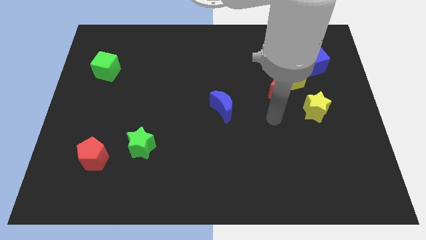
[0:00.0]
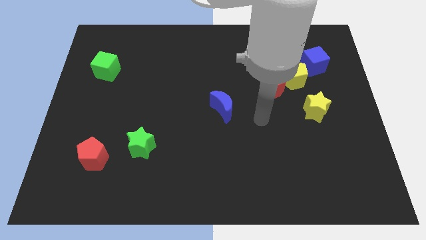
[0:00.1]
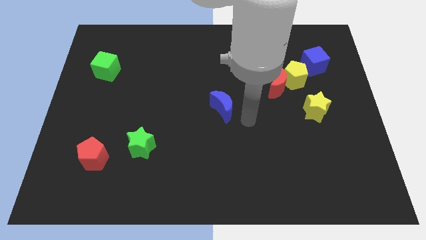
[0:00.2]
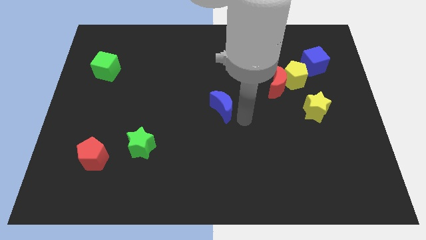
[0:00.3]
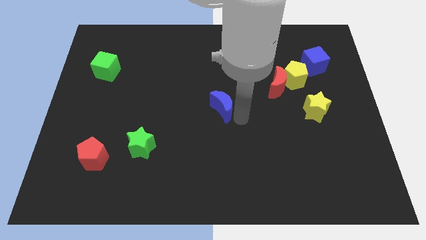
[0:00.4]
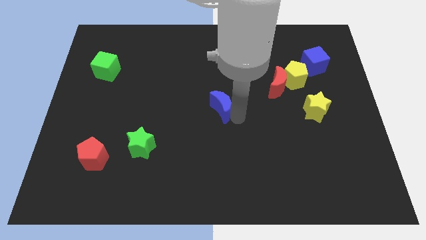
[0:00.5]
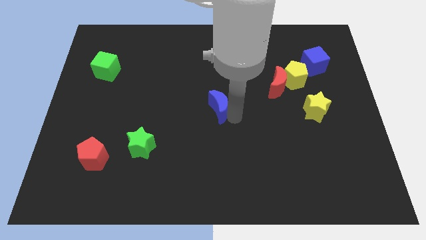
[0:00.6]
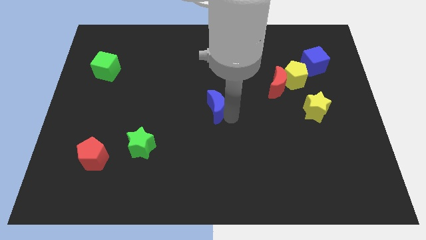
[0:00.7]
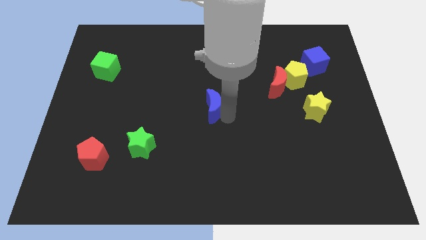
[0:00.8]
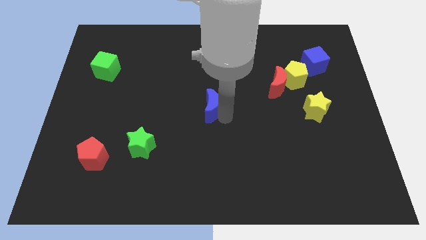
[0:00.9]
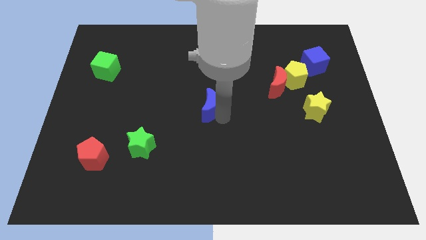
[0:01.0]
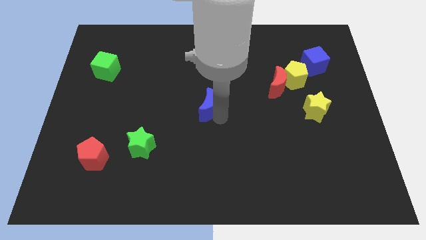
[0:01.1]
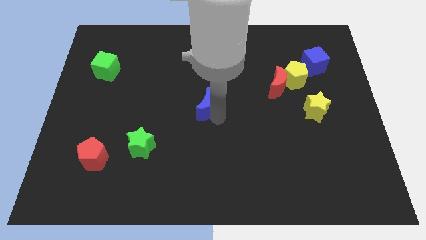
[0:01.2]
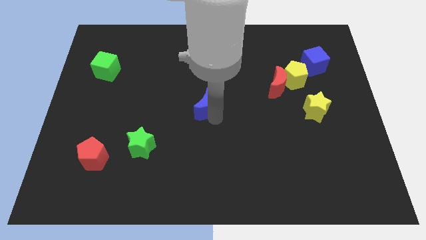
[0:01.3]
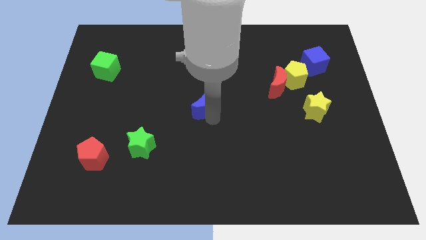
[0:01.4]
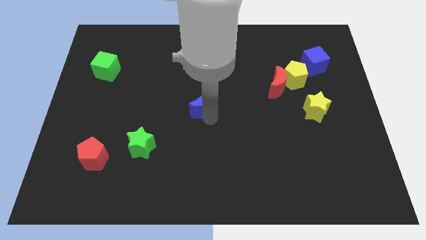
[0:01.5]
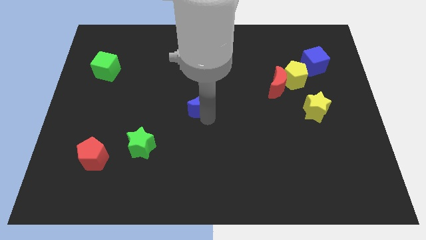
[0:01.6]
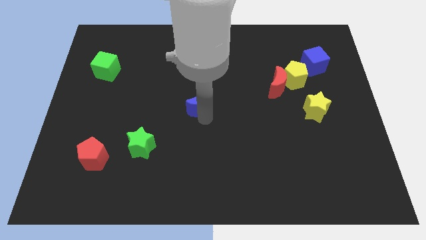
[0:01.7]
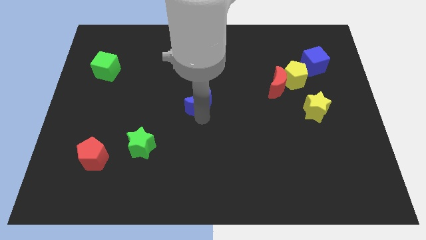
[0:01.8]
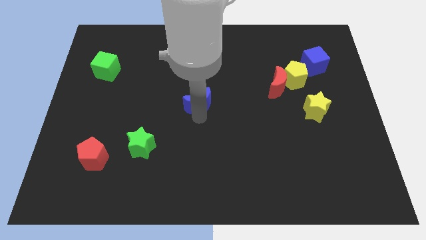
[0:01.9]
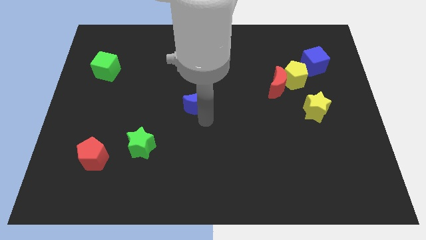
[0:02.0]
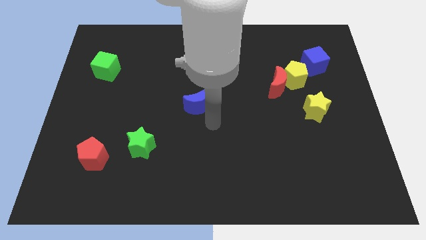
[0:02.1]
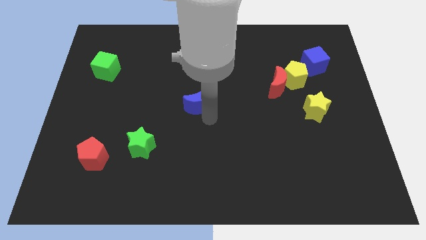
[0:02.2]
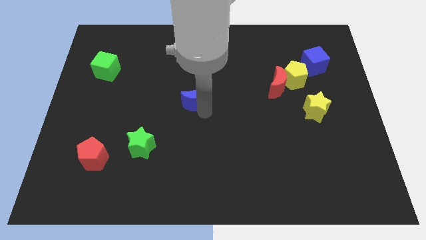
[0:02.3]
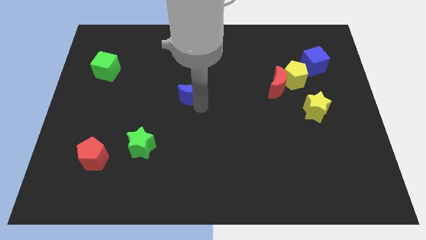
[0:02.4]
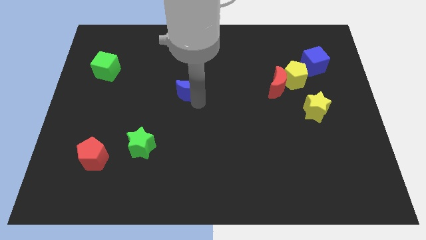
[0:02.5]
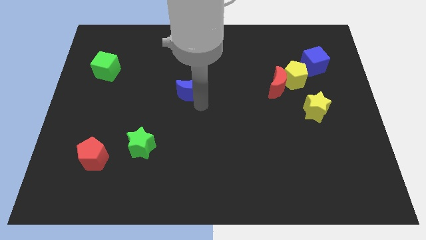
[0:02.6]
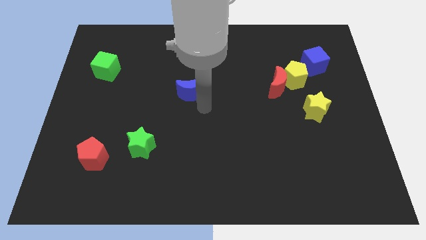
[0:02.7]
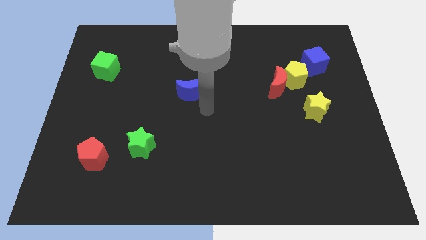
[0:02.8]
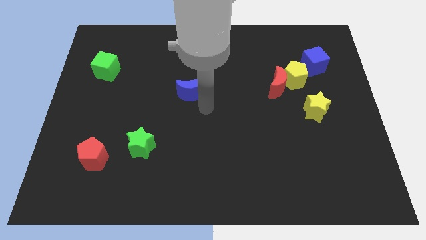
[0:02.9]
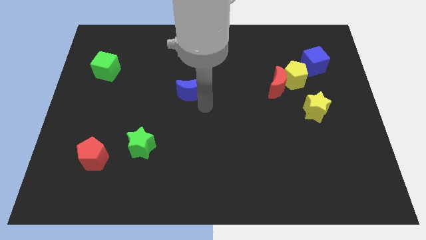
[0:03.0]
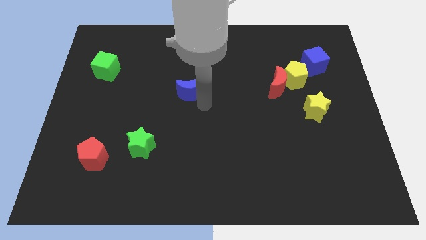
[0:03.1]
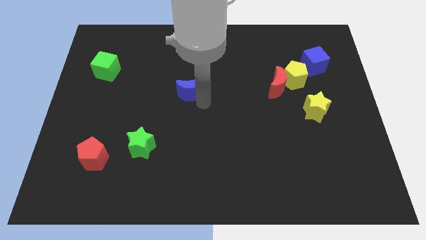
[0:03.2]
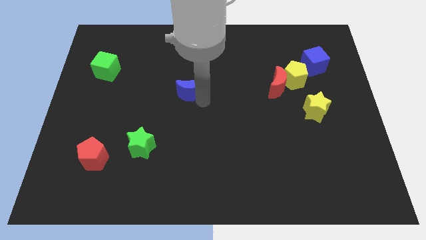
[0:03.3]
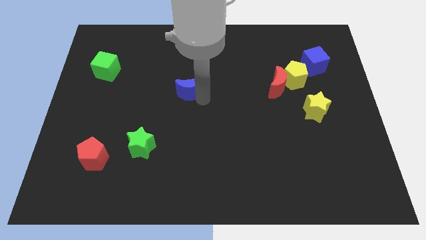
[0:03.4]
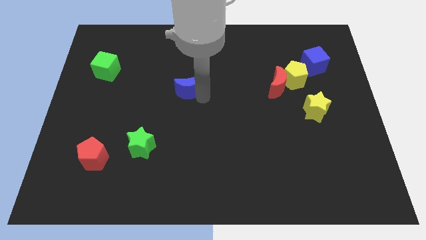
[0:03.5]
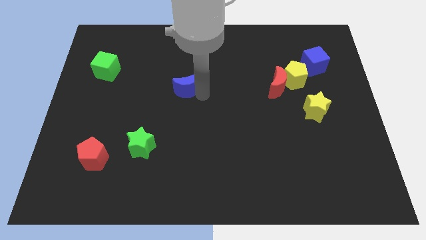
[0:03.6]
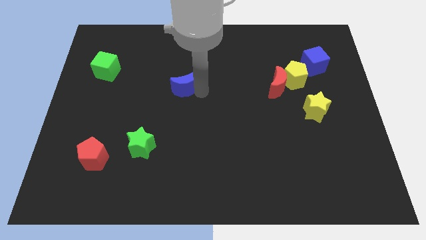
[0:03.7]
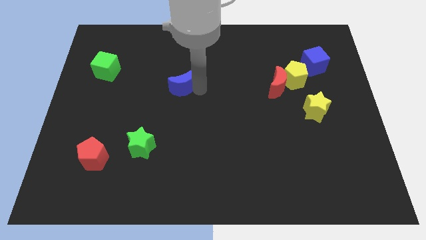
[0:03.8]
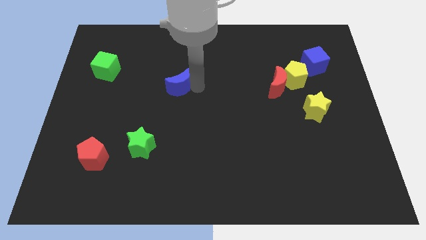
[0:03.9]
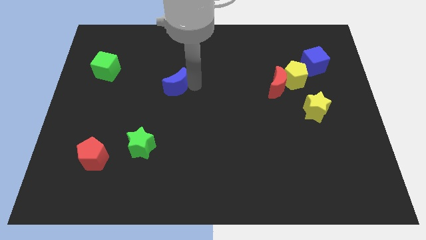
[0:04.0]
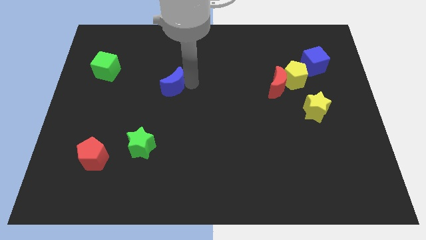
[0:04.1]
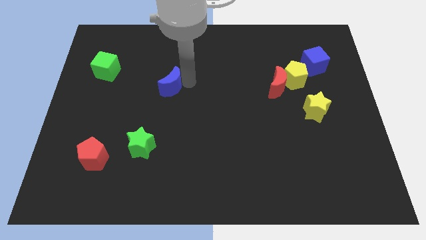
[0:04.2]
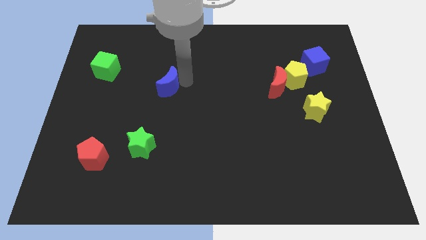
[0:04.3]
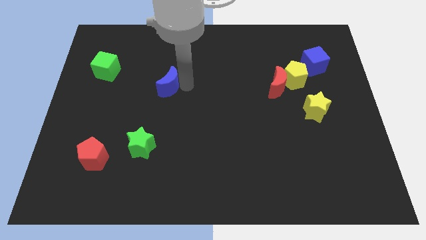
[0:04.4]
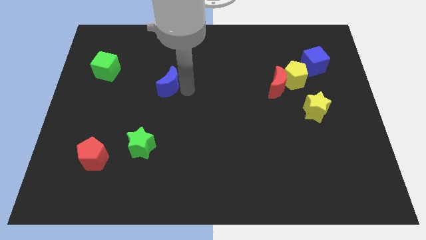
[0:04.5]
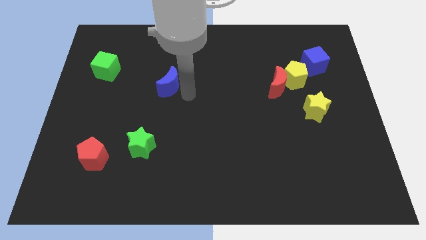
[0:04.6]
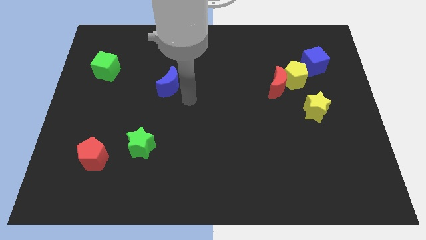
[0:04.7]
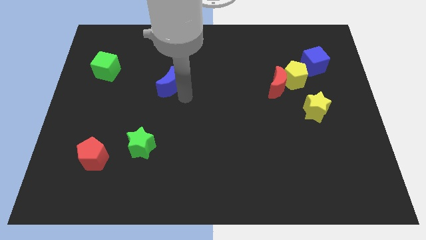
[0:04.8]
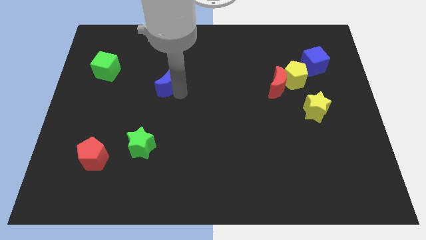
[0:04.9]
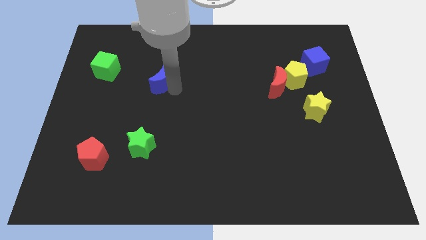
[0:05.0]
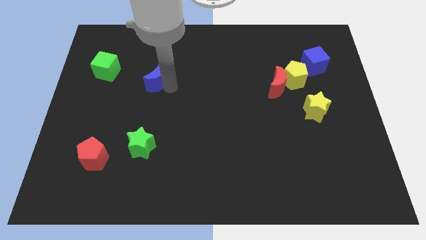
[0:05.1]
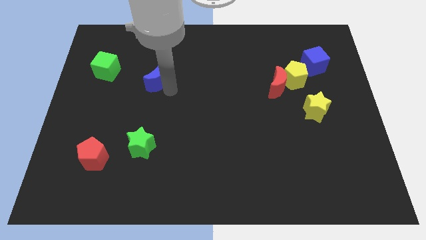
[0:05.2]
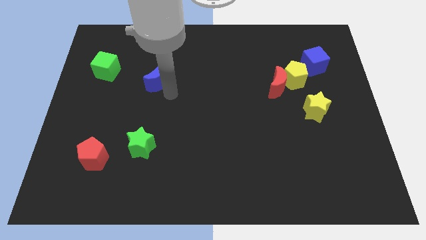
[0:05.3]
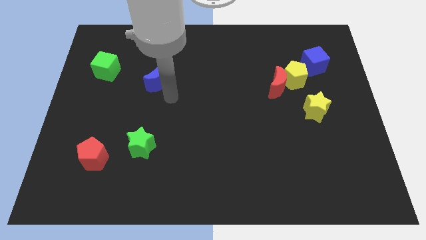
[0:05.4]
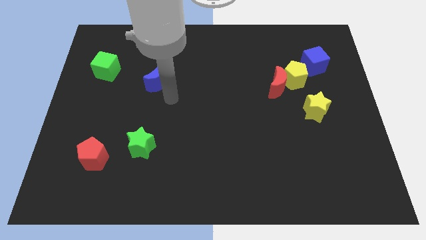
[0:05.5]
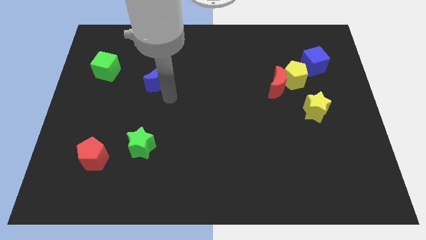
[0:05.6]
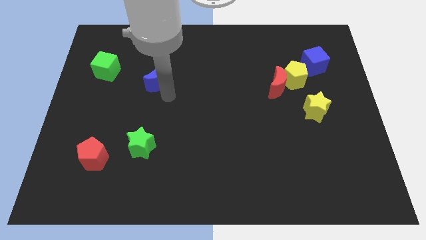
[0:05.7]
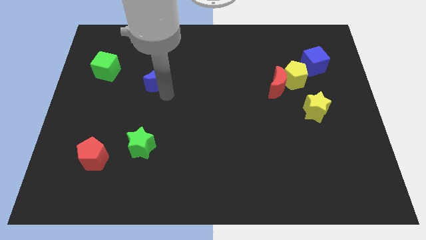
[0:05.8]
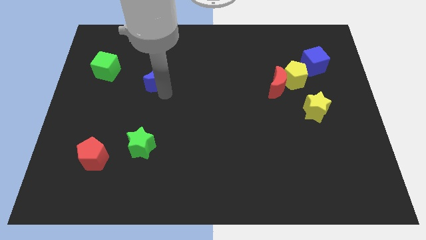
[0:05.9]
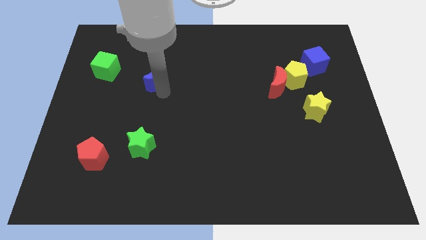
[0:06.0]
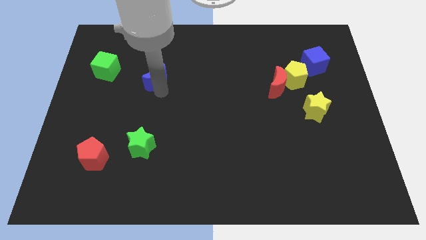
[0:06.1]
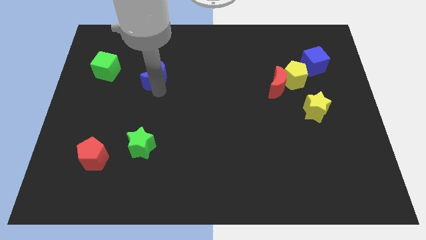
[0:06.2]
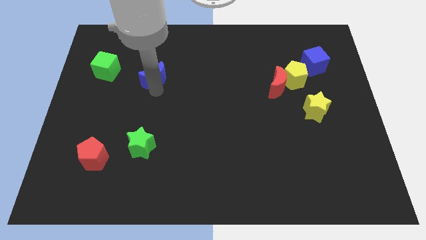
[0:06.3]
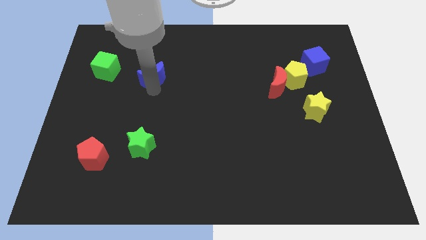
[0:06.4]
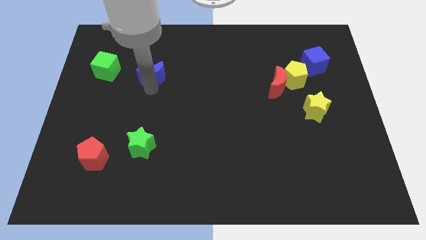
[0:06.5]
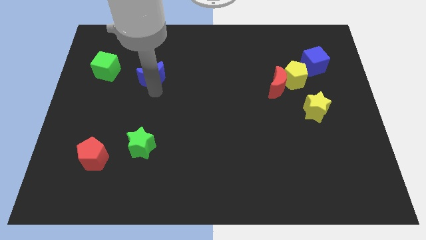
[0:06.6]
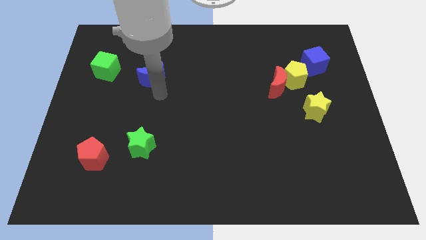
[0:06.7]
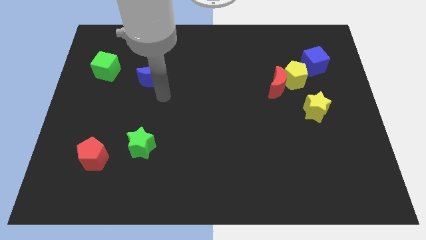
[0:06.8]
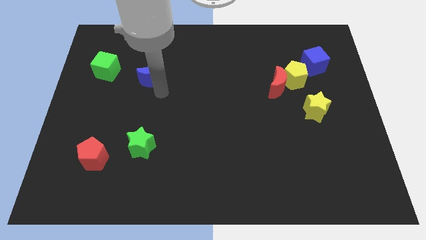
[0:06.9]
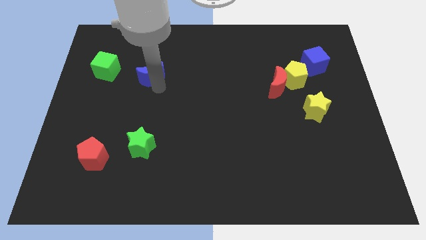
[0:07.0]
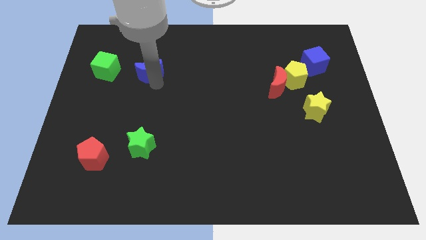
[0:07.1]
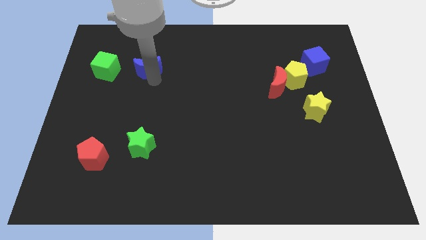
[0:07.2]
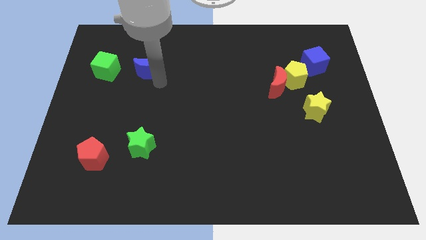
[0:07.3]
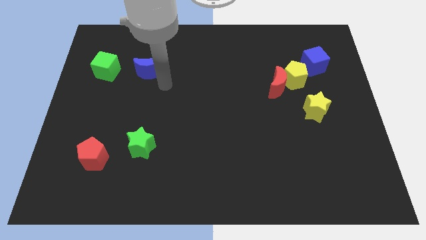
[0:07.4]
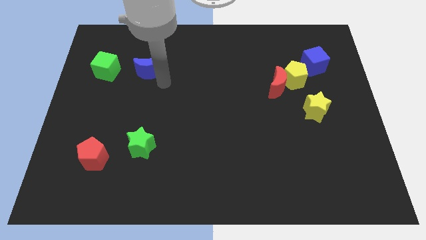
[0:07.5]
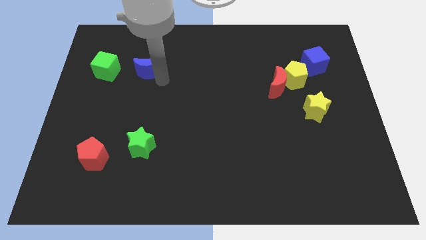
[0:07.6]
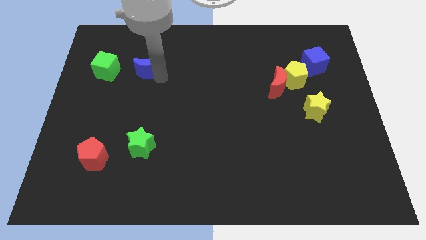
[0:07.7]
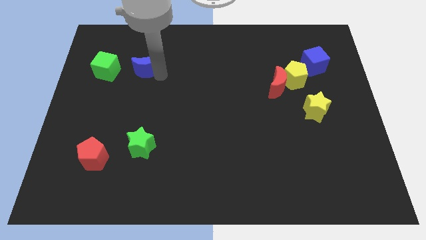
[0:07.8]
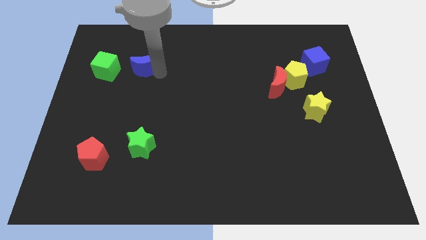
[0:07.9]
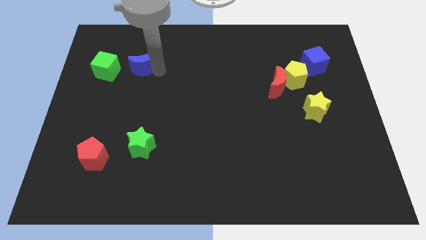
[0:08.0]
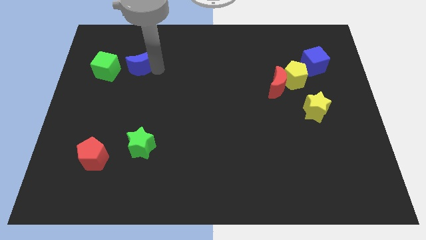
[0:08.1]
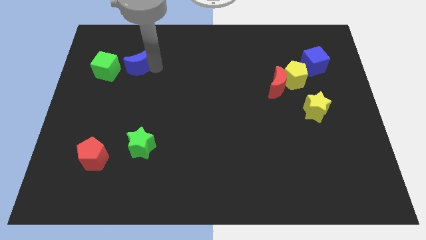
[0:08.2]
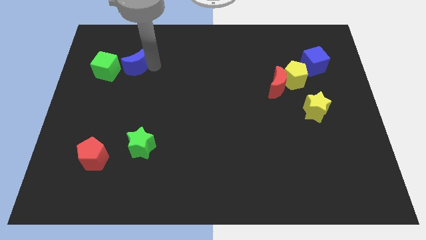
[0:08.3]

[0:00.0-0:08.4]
slide the blue moon to the top right side of the green cube
